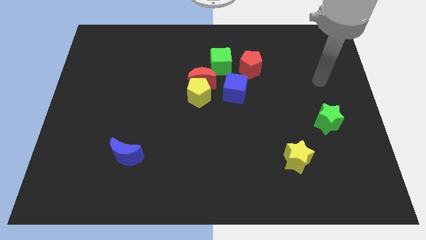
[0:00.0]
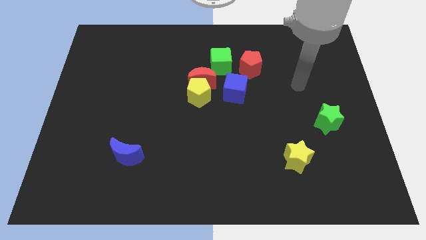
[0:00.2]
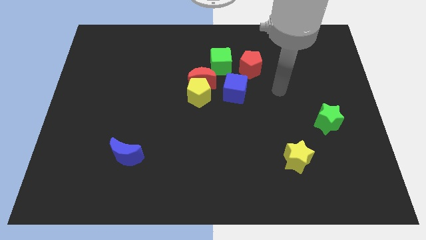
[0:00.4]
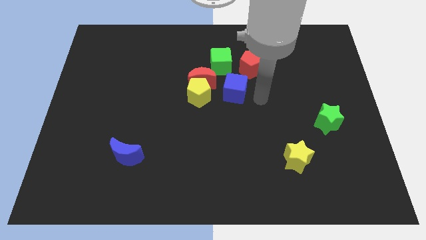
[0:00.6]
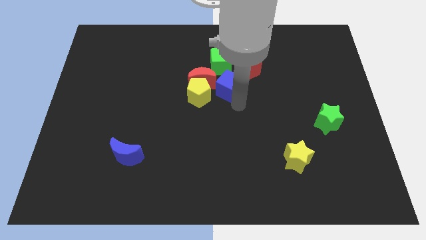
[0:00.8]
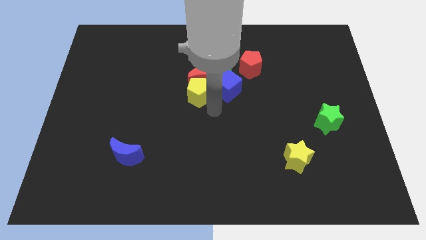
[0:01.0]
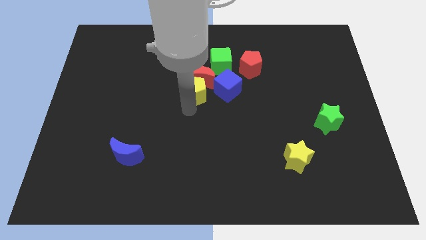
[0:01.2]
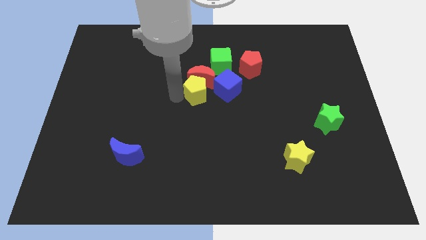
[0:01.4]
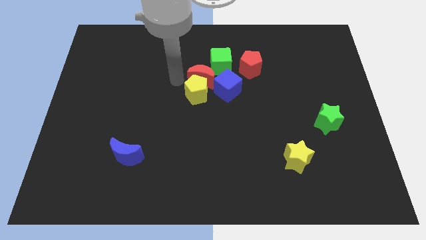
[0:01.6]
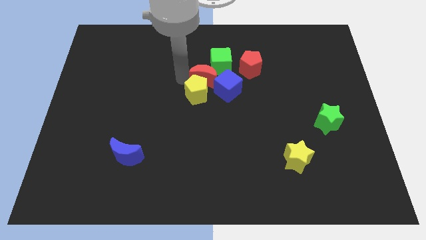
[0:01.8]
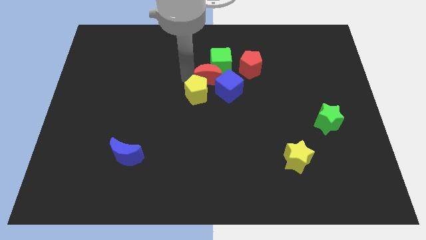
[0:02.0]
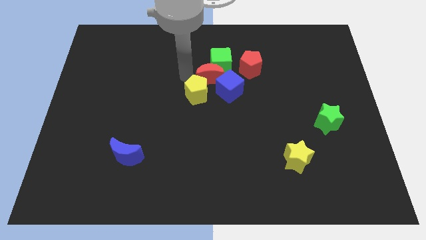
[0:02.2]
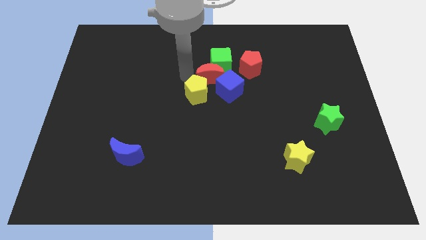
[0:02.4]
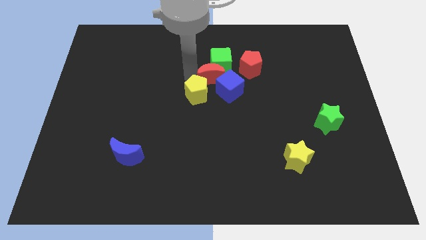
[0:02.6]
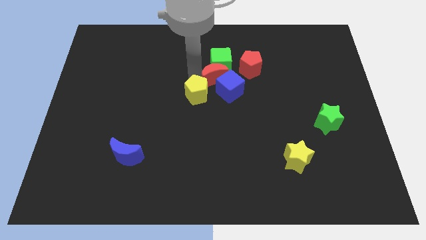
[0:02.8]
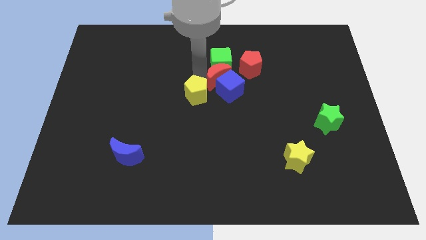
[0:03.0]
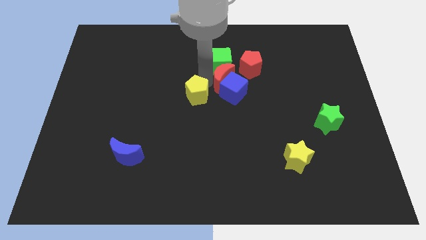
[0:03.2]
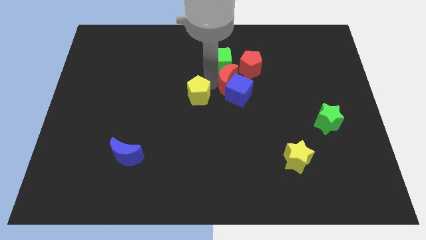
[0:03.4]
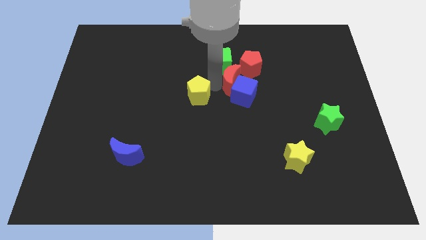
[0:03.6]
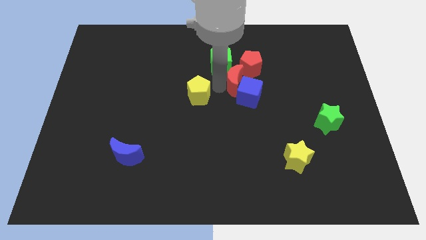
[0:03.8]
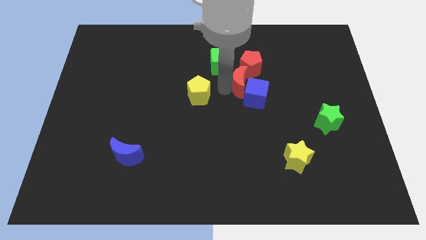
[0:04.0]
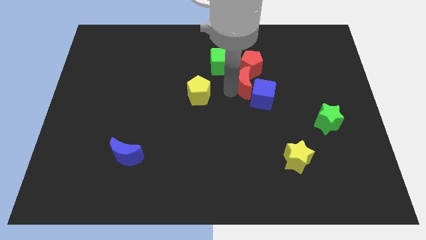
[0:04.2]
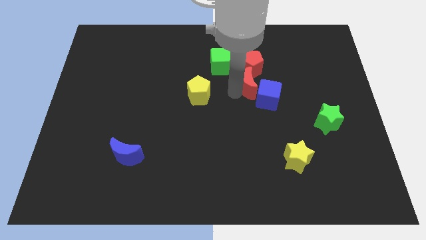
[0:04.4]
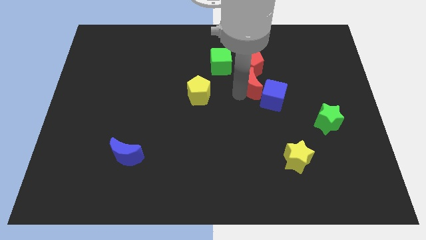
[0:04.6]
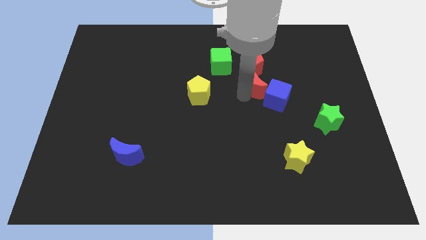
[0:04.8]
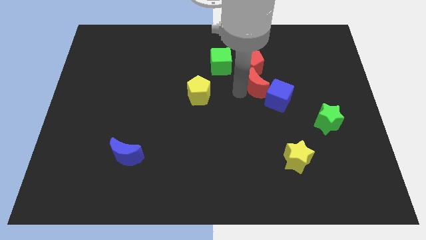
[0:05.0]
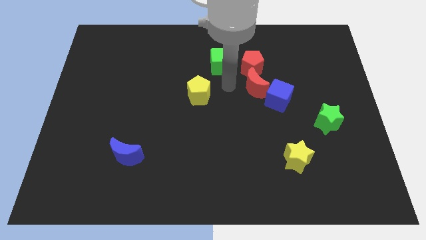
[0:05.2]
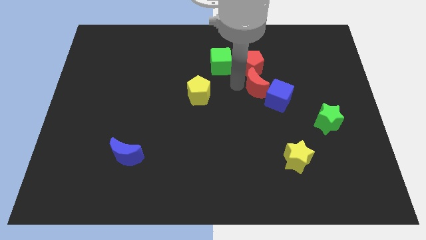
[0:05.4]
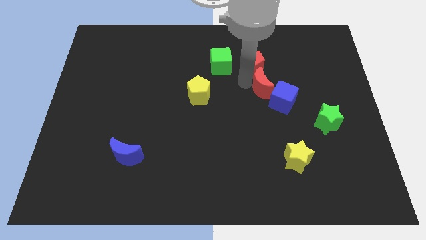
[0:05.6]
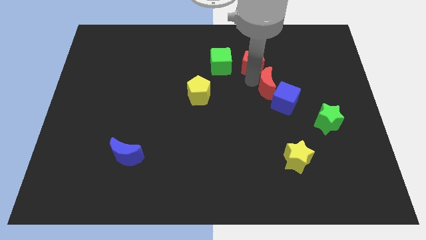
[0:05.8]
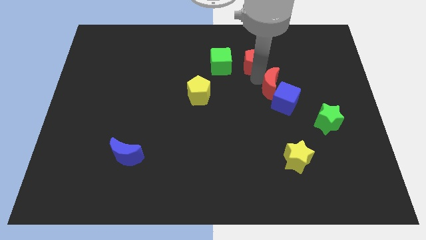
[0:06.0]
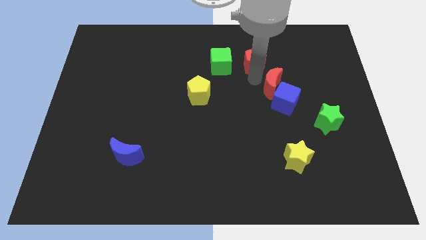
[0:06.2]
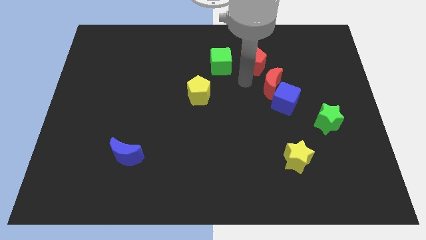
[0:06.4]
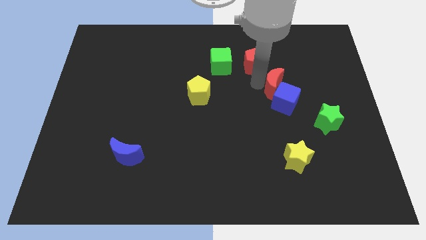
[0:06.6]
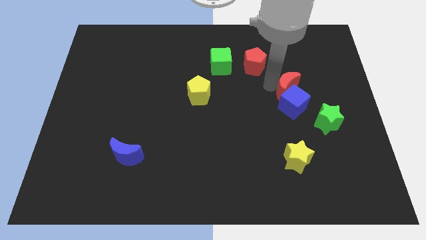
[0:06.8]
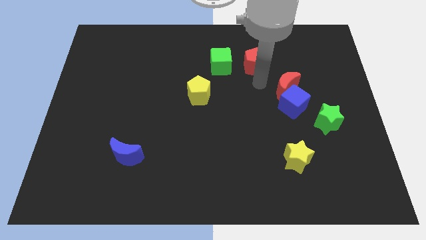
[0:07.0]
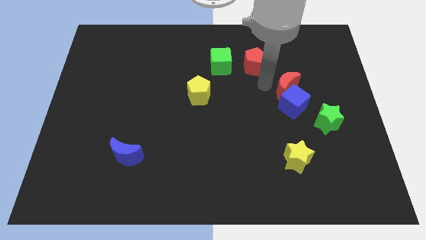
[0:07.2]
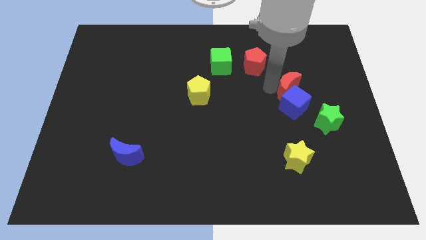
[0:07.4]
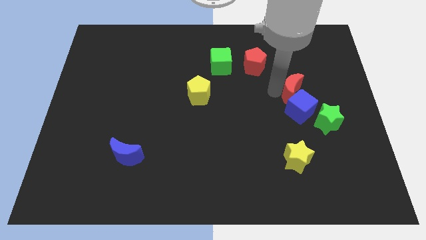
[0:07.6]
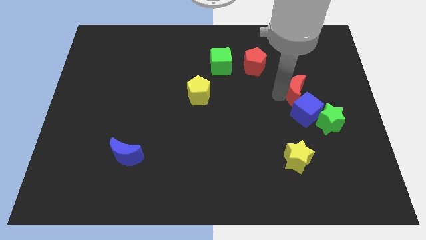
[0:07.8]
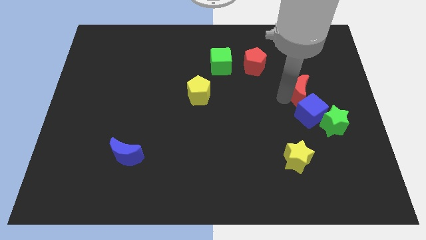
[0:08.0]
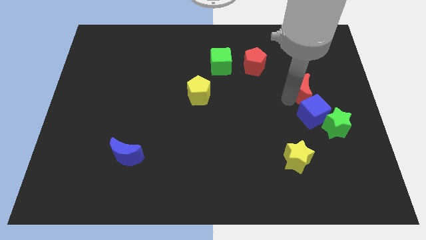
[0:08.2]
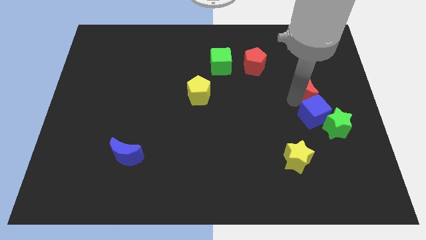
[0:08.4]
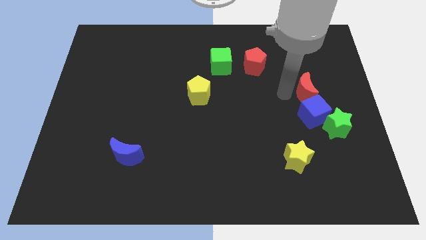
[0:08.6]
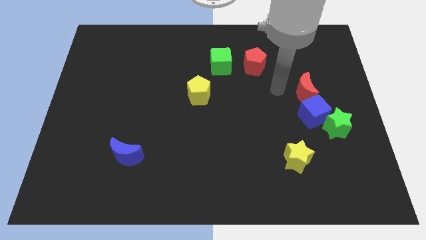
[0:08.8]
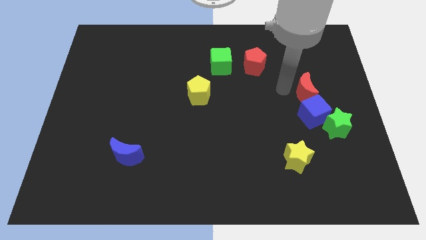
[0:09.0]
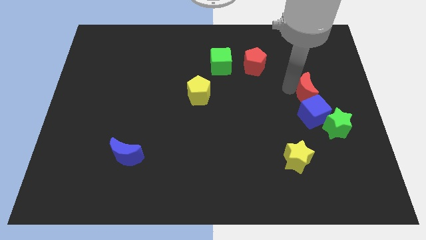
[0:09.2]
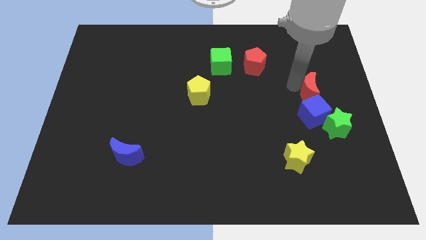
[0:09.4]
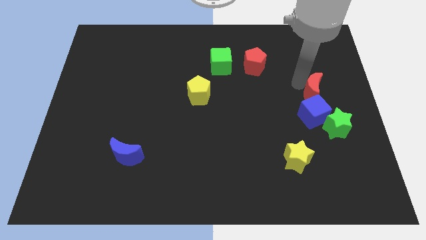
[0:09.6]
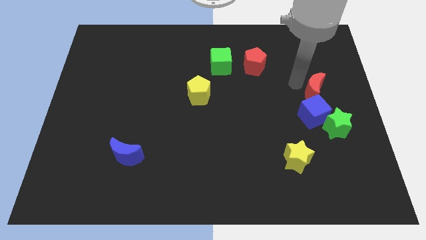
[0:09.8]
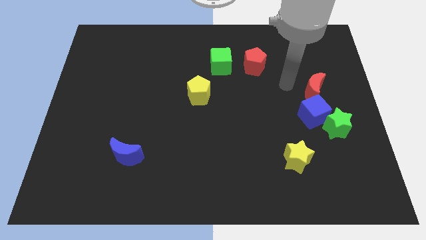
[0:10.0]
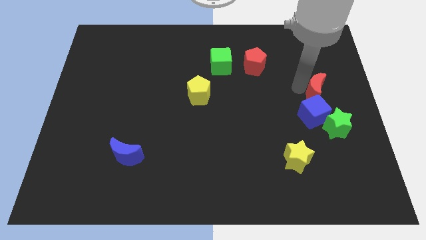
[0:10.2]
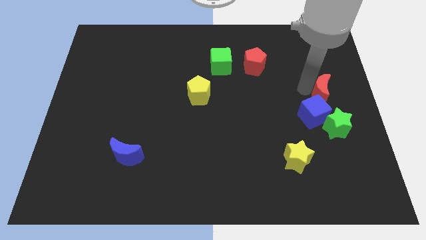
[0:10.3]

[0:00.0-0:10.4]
push the red moon to the right side

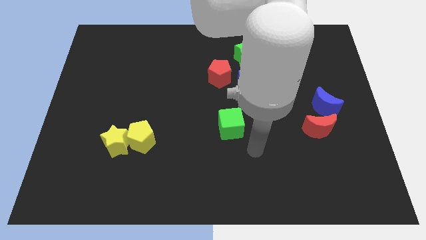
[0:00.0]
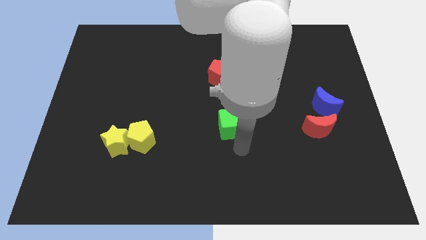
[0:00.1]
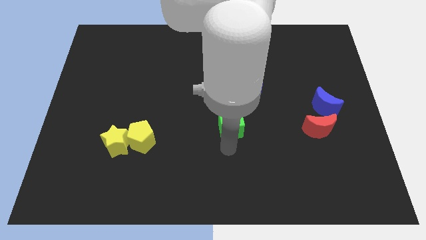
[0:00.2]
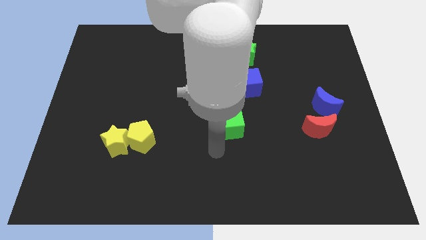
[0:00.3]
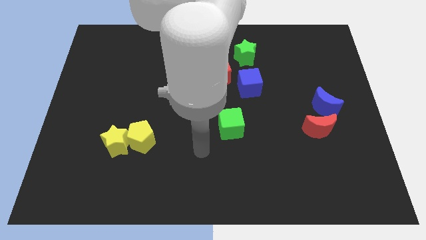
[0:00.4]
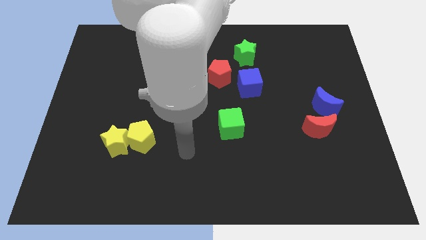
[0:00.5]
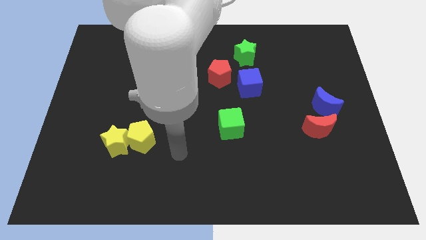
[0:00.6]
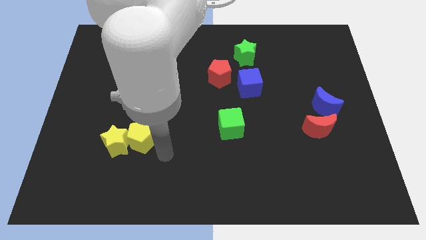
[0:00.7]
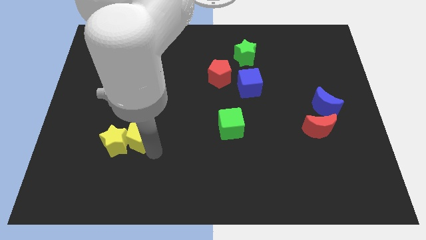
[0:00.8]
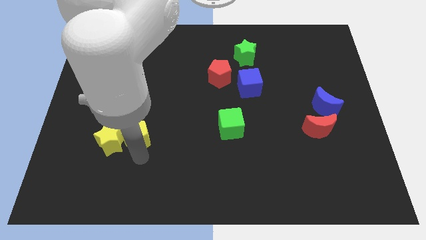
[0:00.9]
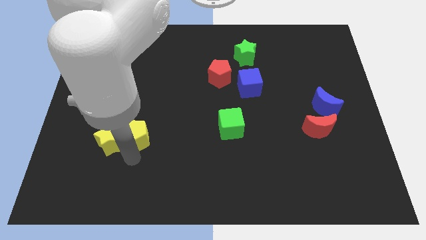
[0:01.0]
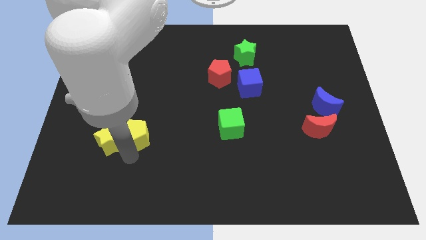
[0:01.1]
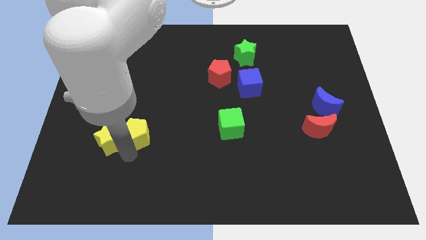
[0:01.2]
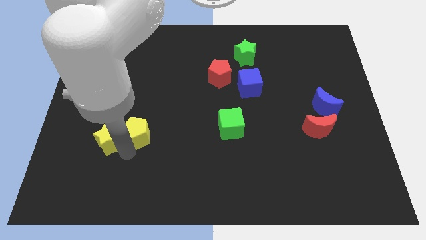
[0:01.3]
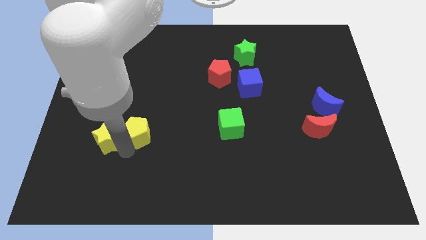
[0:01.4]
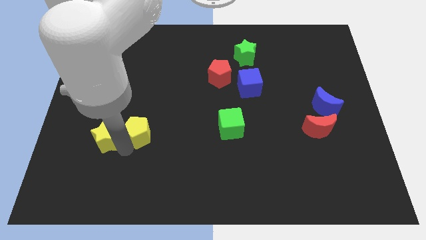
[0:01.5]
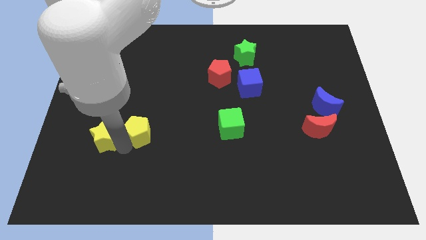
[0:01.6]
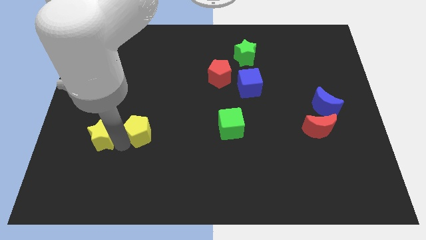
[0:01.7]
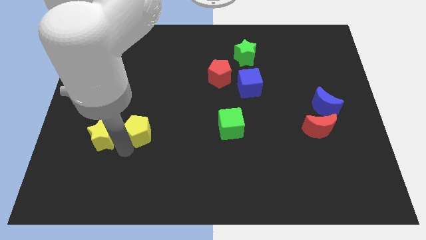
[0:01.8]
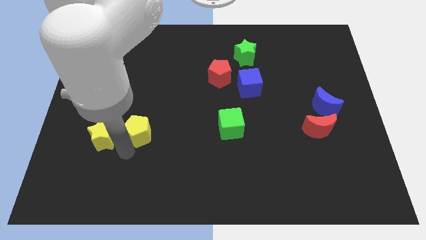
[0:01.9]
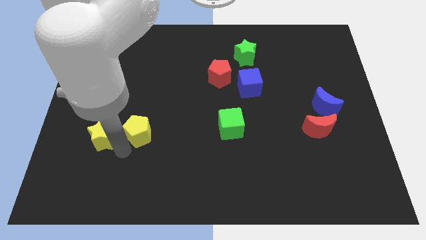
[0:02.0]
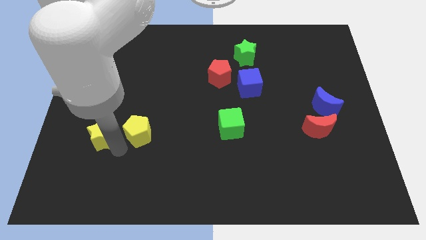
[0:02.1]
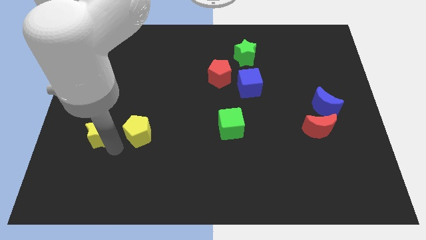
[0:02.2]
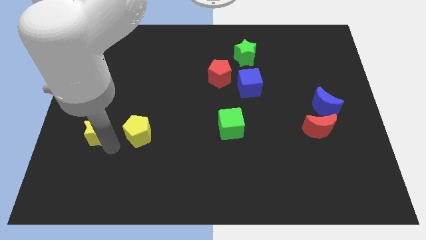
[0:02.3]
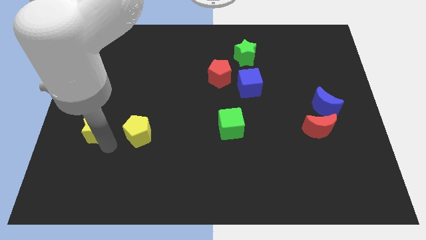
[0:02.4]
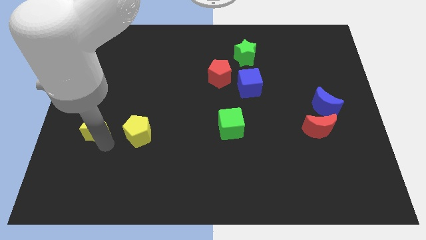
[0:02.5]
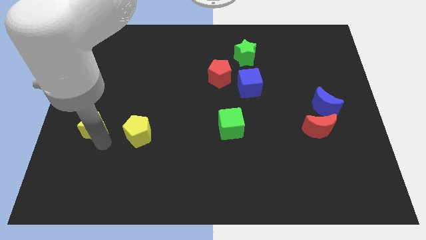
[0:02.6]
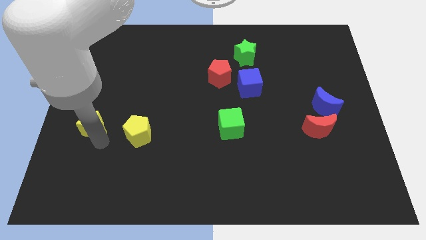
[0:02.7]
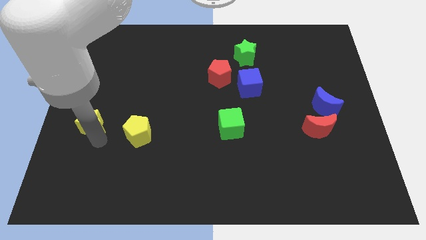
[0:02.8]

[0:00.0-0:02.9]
move the yellow star to the left side
